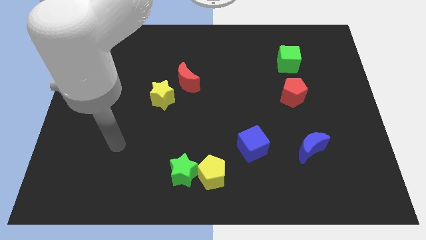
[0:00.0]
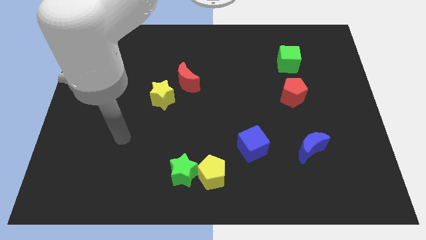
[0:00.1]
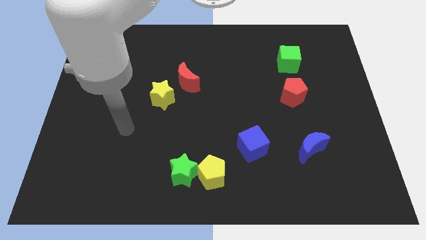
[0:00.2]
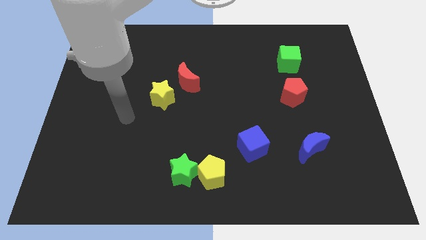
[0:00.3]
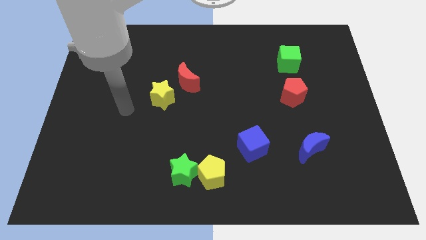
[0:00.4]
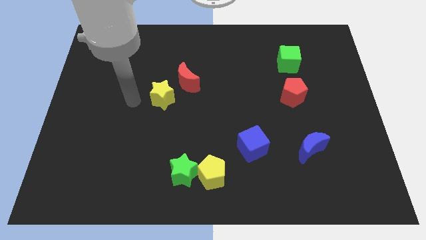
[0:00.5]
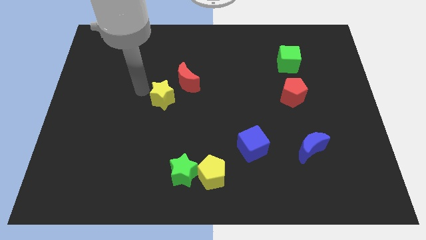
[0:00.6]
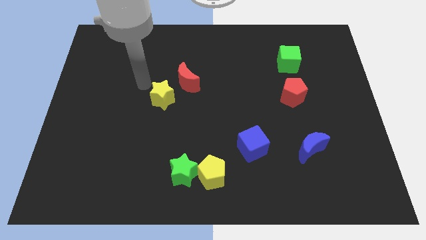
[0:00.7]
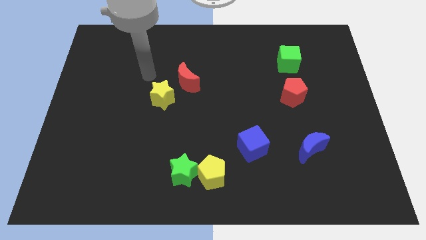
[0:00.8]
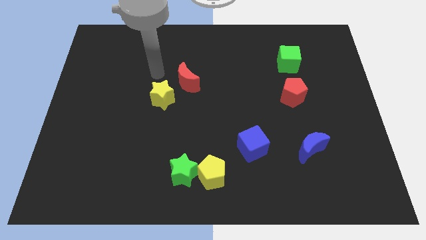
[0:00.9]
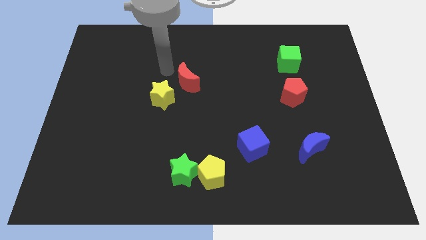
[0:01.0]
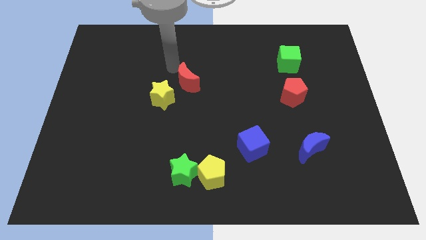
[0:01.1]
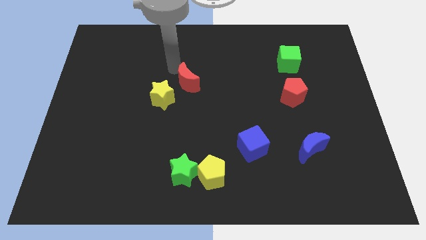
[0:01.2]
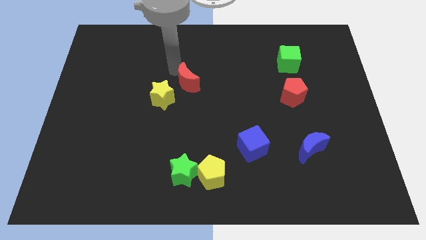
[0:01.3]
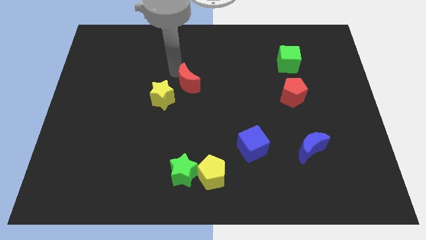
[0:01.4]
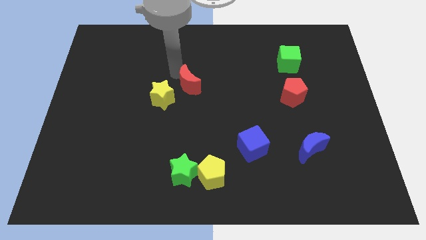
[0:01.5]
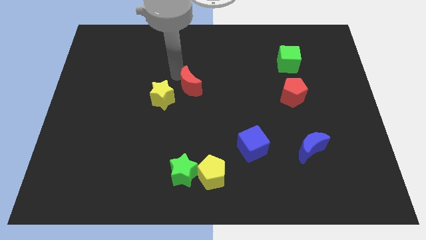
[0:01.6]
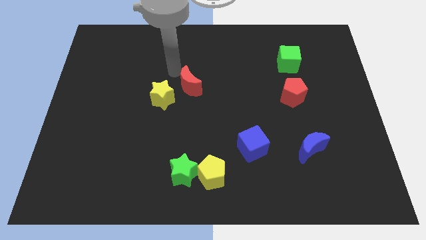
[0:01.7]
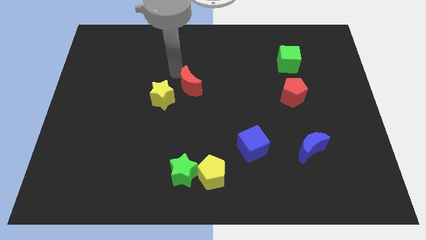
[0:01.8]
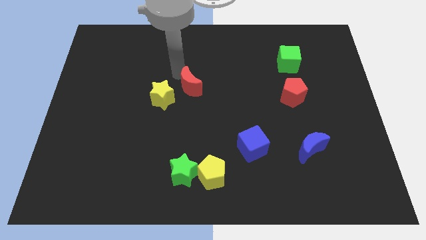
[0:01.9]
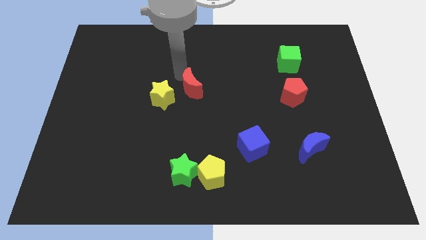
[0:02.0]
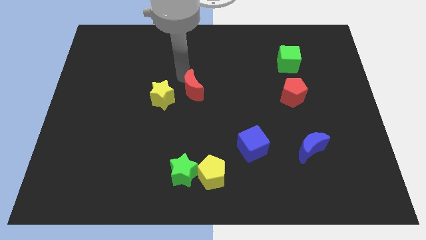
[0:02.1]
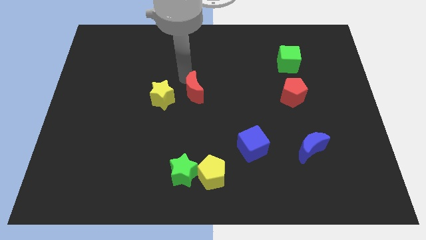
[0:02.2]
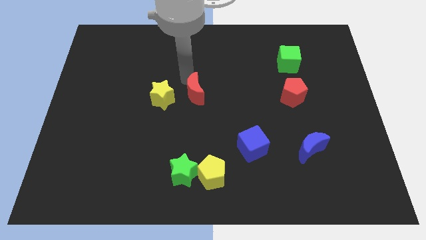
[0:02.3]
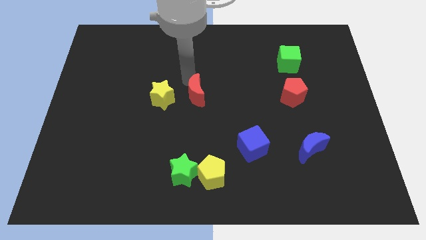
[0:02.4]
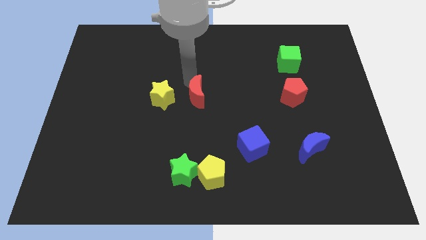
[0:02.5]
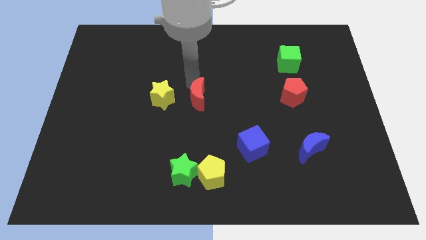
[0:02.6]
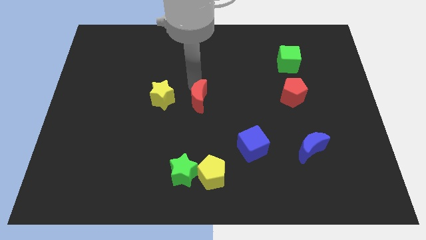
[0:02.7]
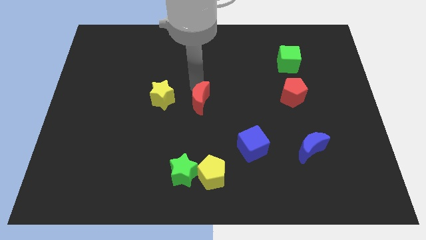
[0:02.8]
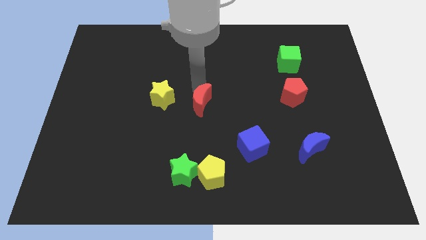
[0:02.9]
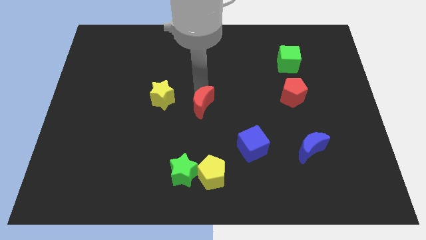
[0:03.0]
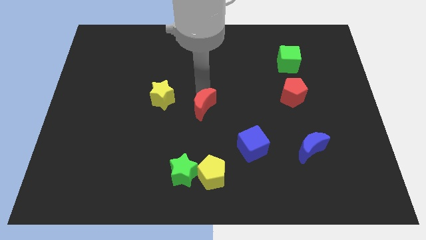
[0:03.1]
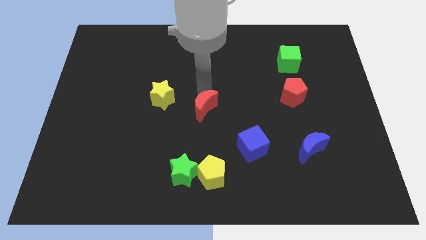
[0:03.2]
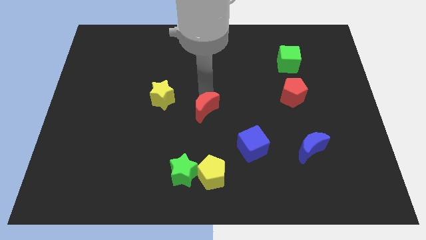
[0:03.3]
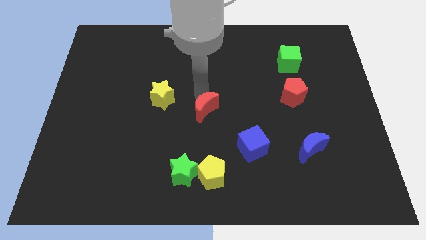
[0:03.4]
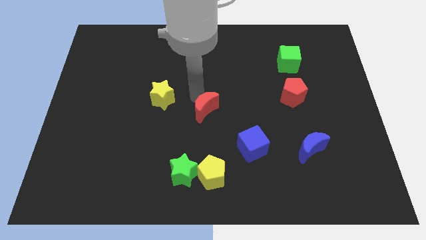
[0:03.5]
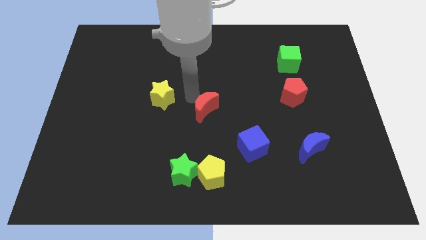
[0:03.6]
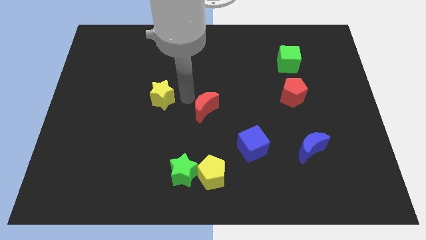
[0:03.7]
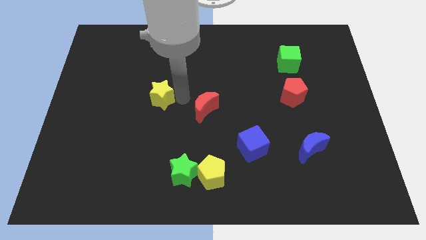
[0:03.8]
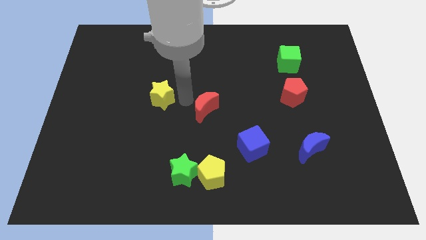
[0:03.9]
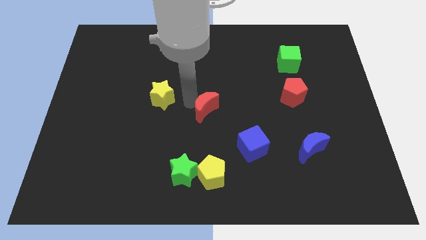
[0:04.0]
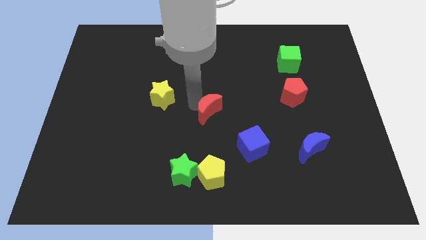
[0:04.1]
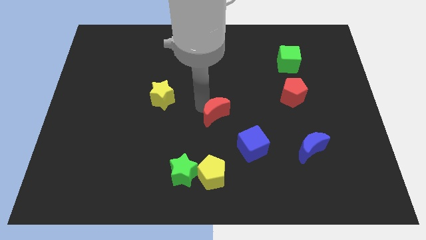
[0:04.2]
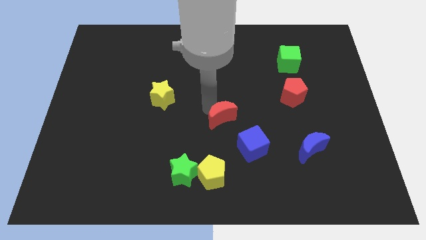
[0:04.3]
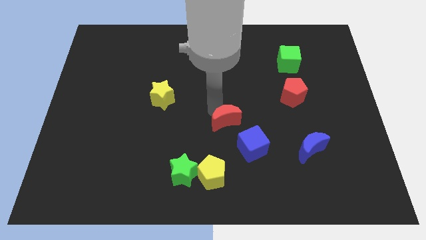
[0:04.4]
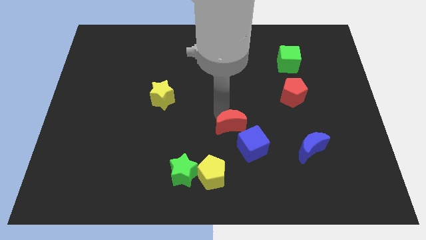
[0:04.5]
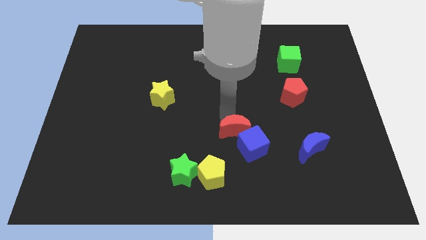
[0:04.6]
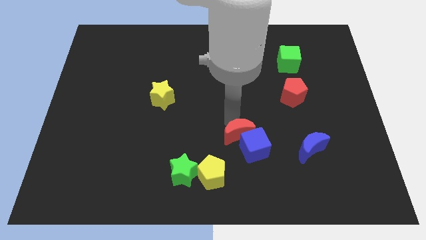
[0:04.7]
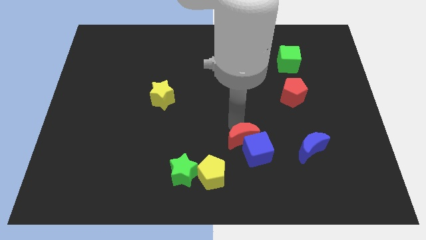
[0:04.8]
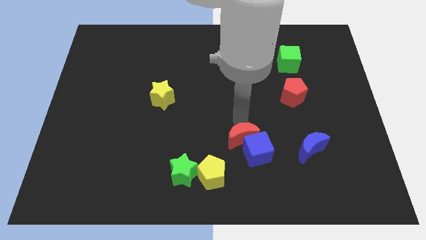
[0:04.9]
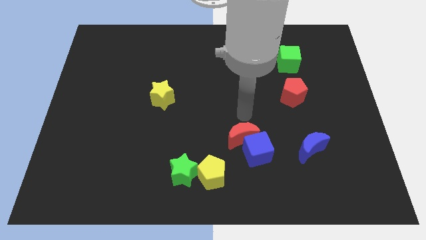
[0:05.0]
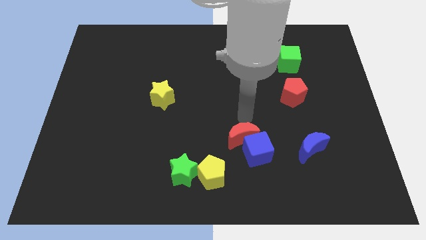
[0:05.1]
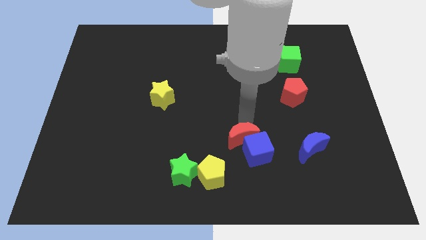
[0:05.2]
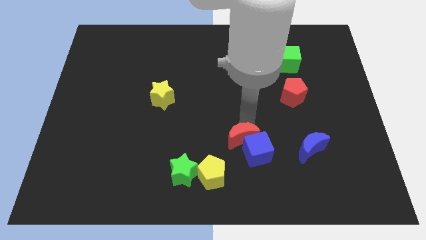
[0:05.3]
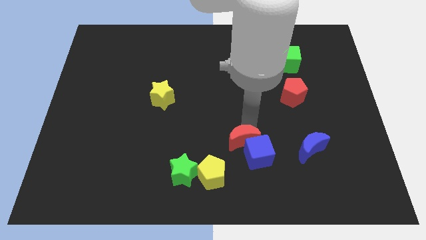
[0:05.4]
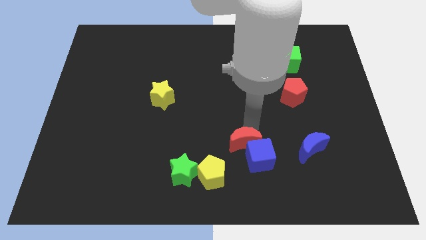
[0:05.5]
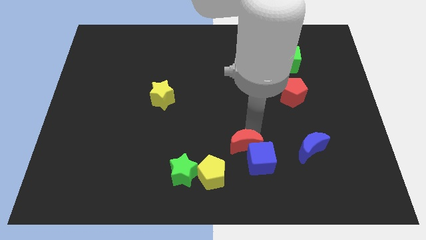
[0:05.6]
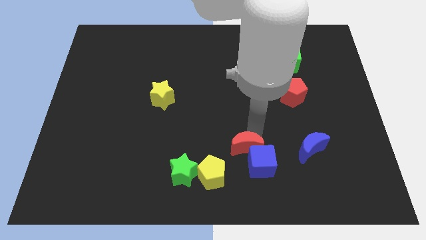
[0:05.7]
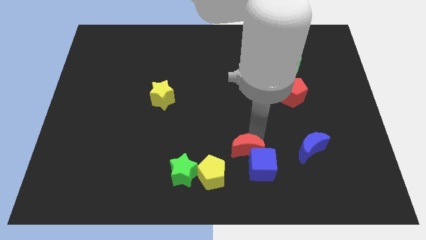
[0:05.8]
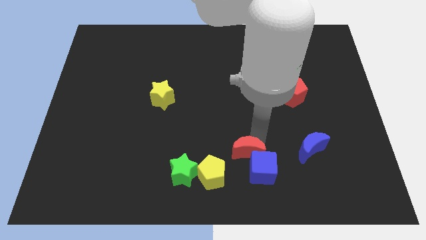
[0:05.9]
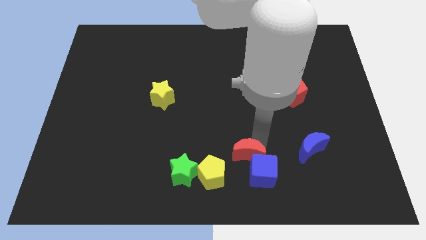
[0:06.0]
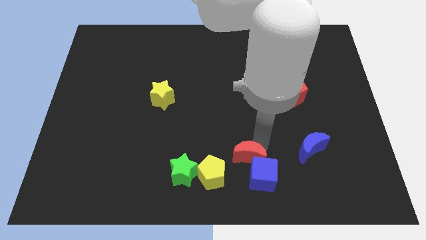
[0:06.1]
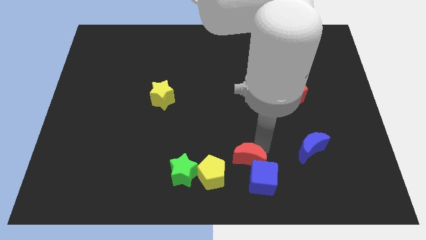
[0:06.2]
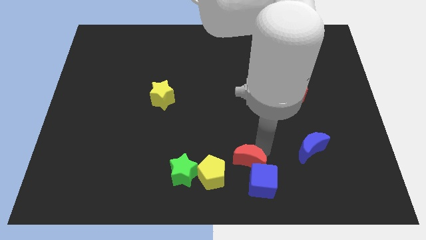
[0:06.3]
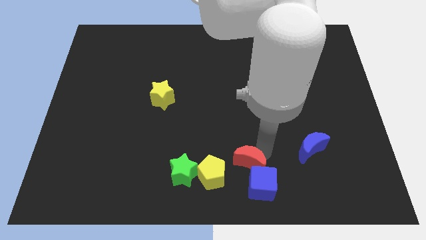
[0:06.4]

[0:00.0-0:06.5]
push the red moon to the bottom side

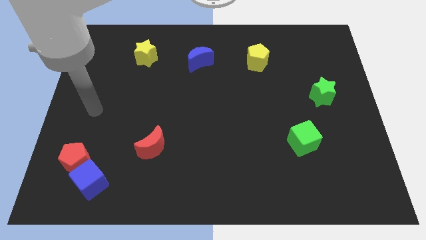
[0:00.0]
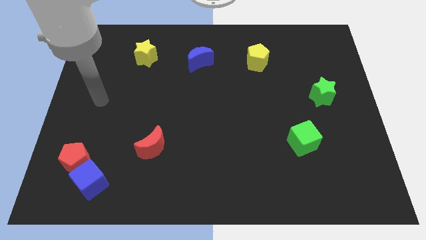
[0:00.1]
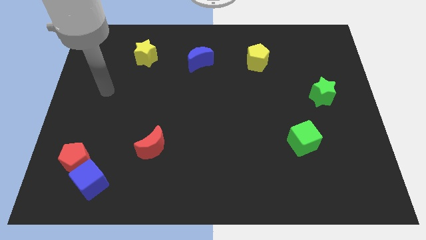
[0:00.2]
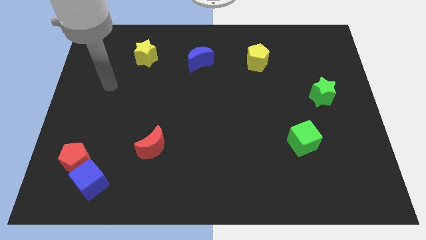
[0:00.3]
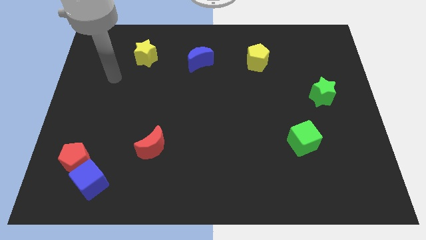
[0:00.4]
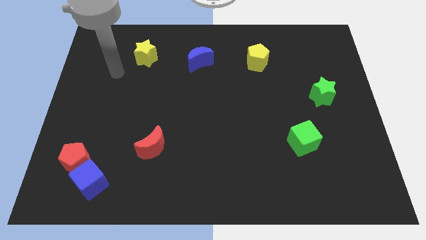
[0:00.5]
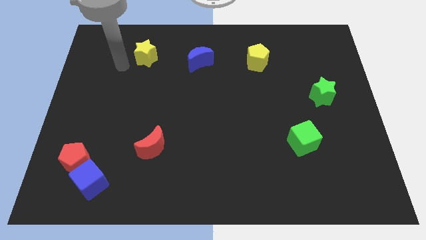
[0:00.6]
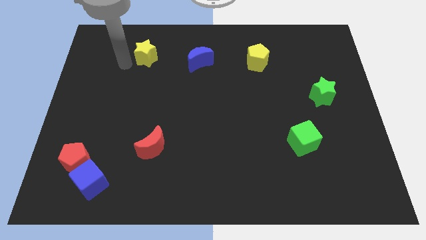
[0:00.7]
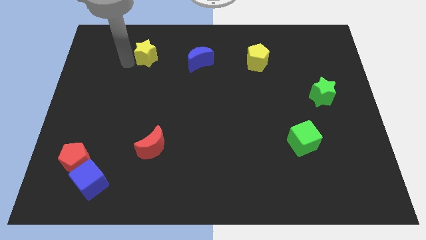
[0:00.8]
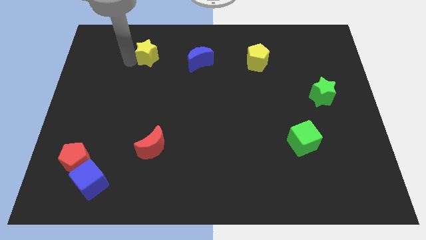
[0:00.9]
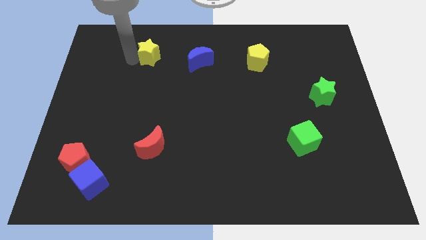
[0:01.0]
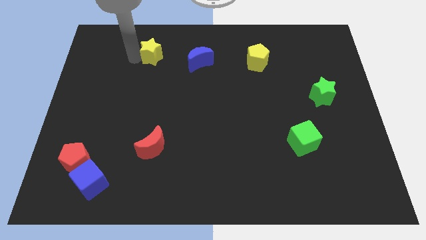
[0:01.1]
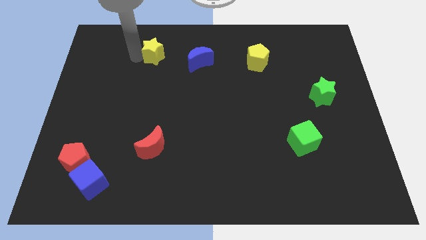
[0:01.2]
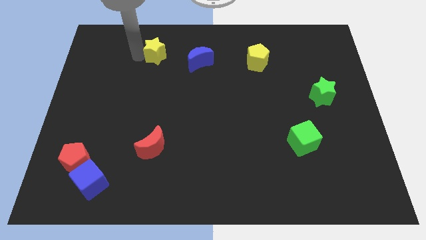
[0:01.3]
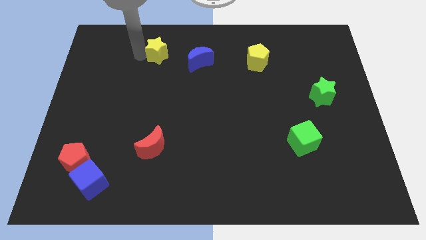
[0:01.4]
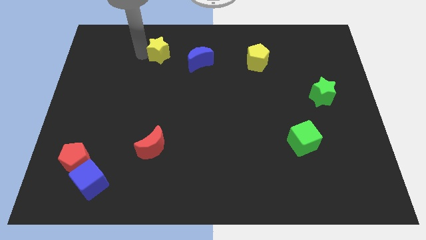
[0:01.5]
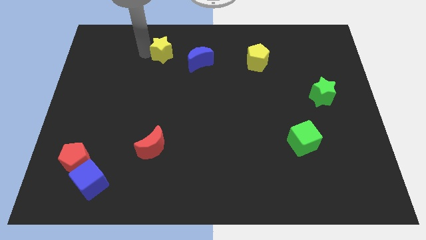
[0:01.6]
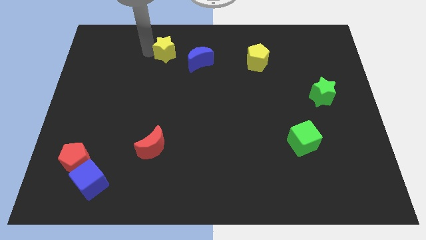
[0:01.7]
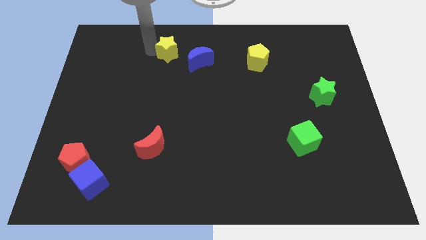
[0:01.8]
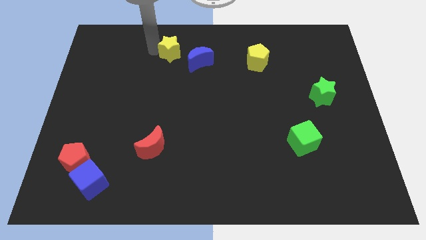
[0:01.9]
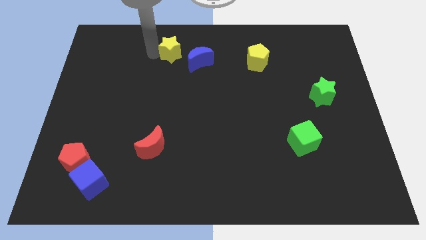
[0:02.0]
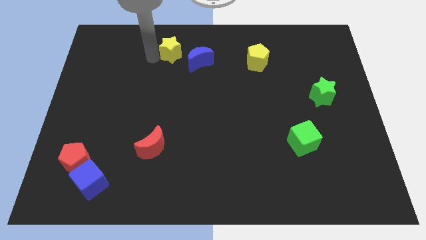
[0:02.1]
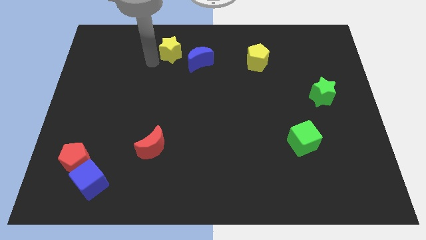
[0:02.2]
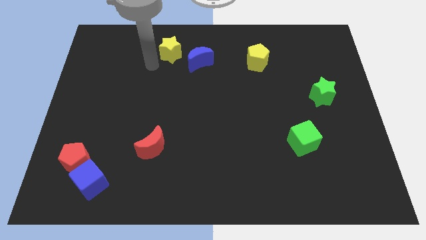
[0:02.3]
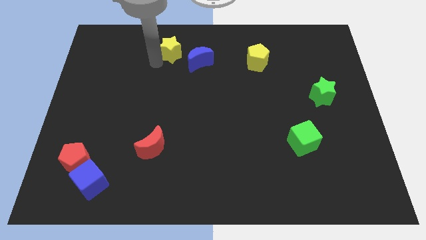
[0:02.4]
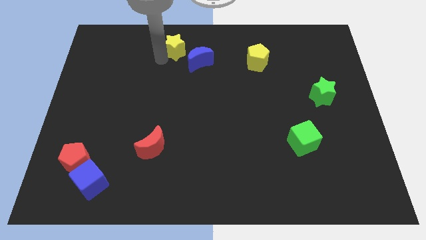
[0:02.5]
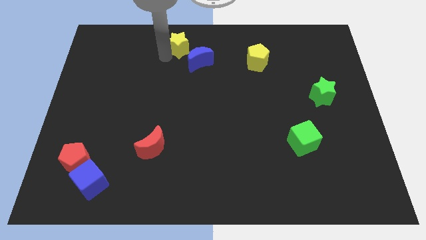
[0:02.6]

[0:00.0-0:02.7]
put the yellow star to the top
